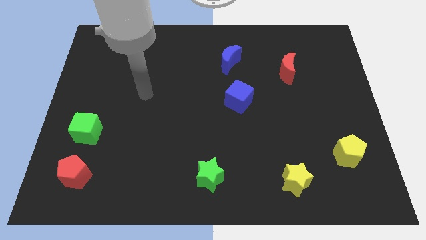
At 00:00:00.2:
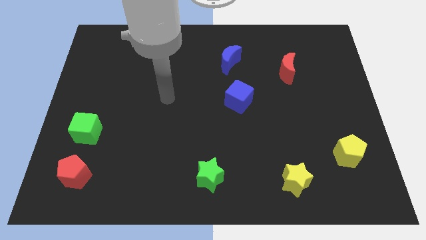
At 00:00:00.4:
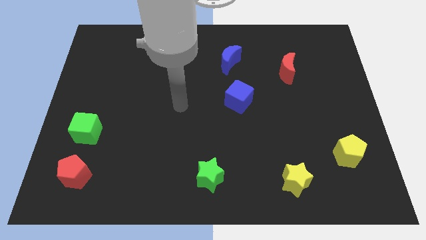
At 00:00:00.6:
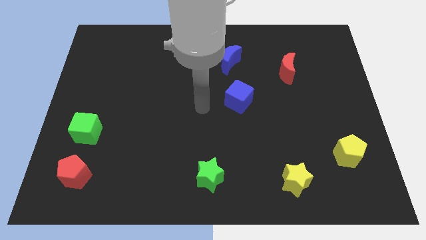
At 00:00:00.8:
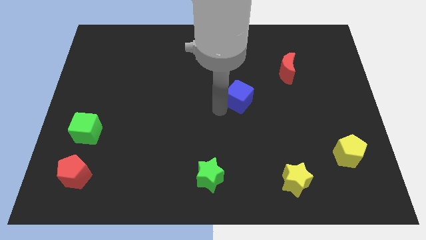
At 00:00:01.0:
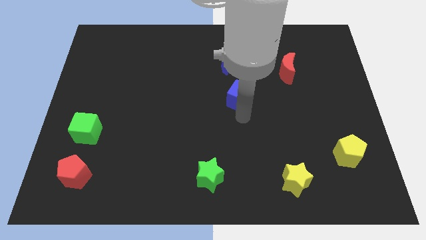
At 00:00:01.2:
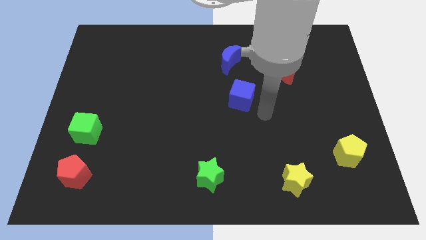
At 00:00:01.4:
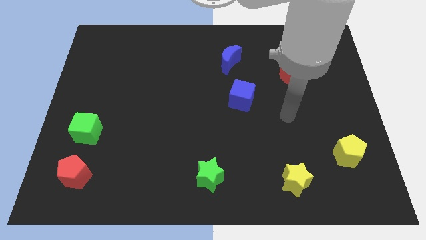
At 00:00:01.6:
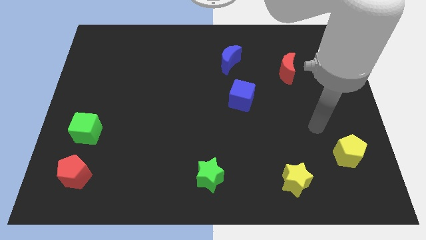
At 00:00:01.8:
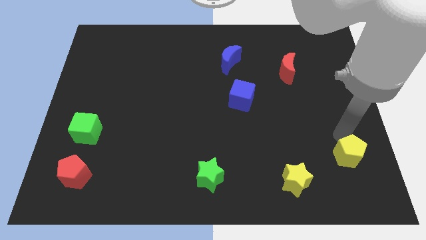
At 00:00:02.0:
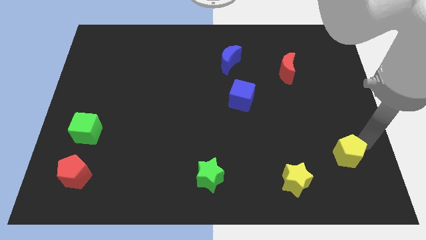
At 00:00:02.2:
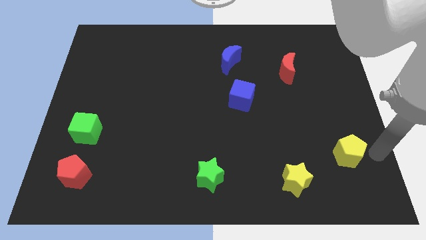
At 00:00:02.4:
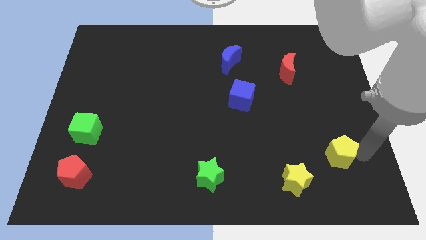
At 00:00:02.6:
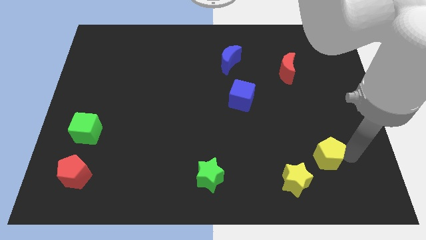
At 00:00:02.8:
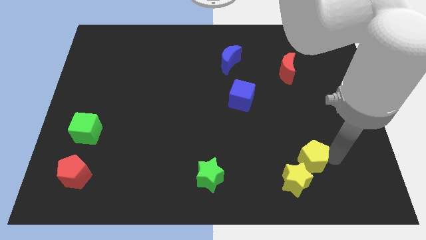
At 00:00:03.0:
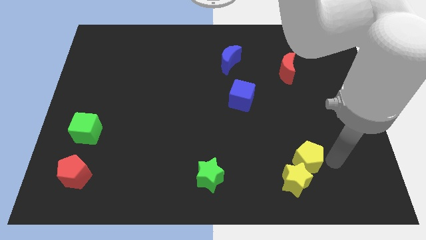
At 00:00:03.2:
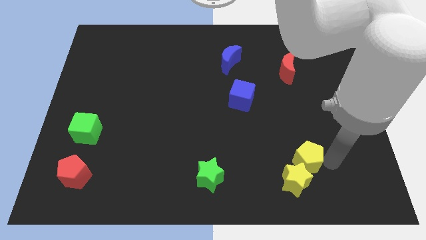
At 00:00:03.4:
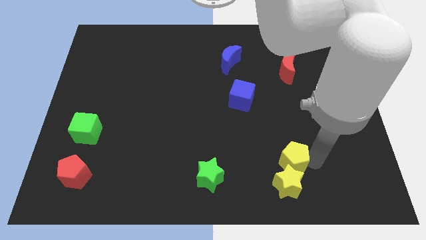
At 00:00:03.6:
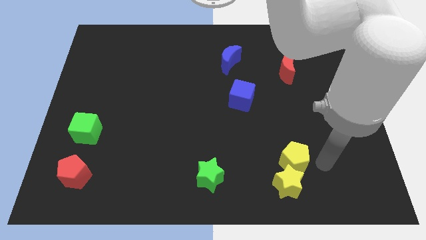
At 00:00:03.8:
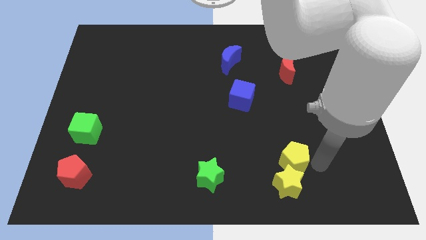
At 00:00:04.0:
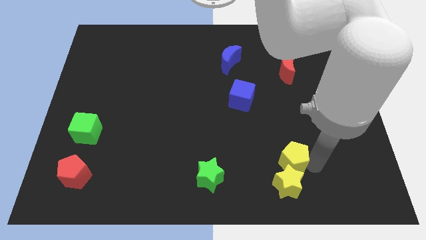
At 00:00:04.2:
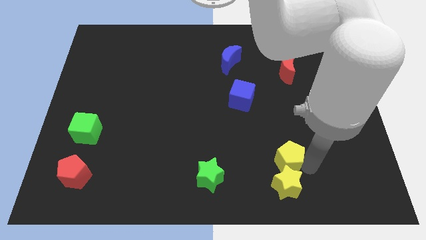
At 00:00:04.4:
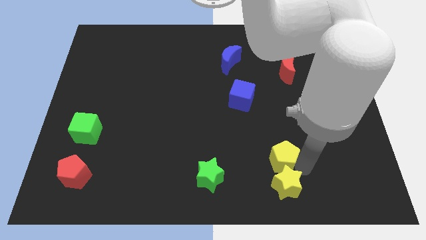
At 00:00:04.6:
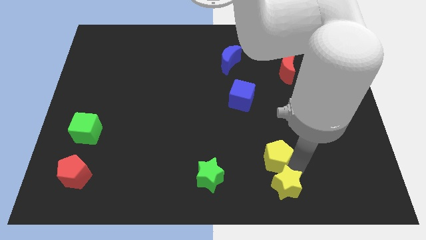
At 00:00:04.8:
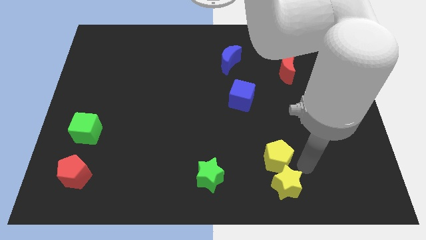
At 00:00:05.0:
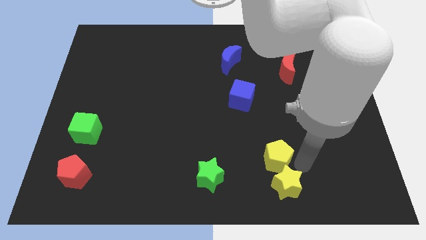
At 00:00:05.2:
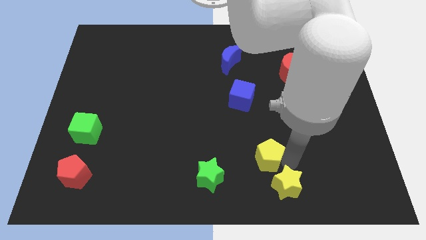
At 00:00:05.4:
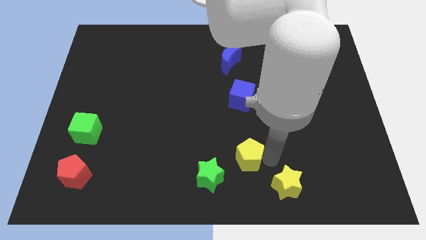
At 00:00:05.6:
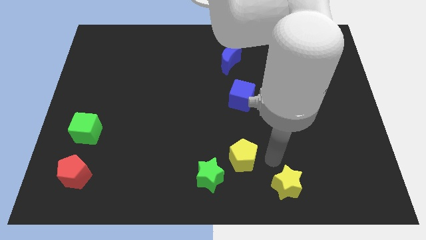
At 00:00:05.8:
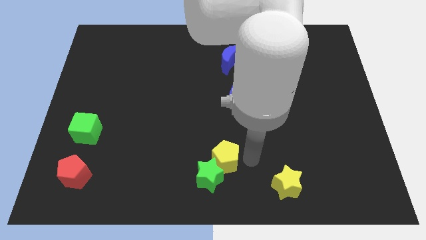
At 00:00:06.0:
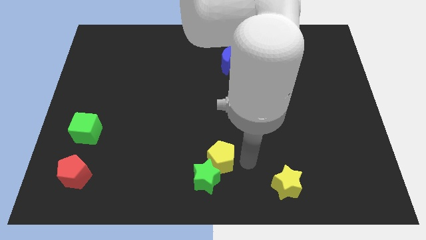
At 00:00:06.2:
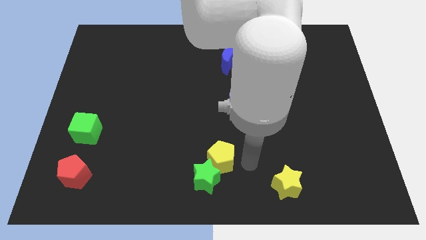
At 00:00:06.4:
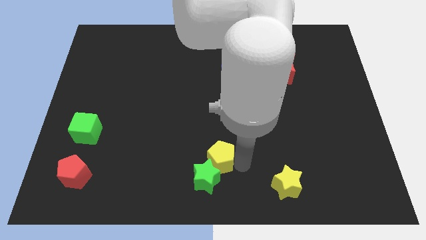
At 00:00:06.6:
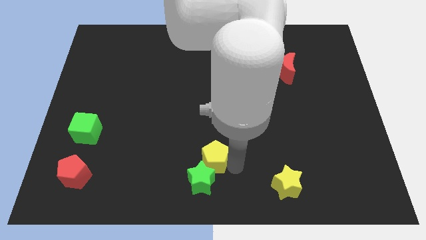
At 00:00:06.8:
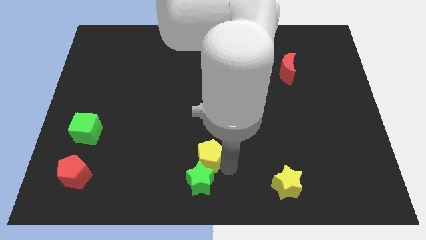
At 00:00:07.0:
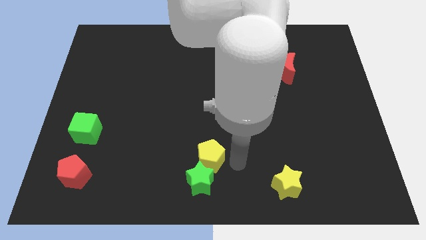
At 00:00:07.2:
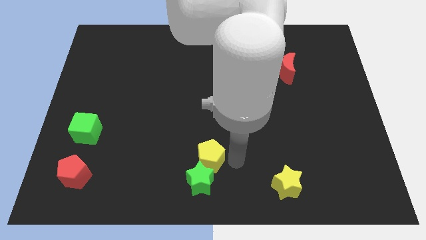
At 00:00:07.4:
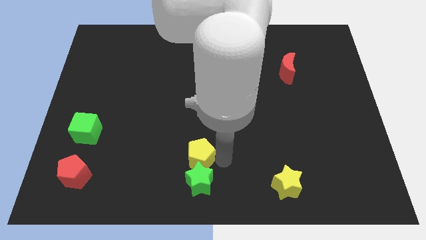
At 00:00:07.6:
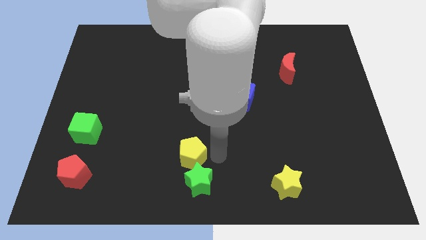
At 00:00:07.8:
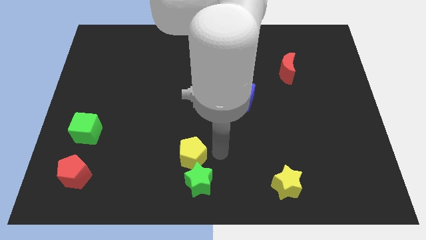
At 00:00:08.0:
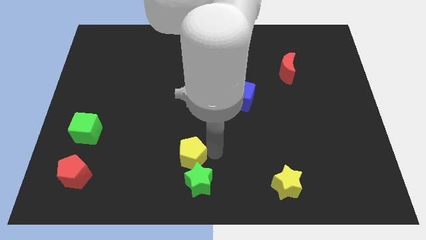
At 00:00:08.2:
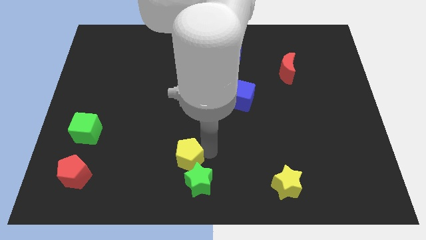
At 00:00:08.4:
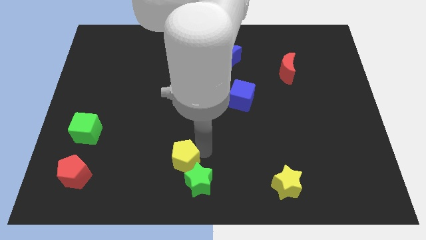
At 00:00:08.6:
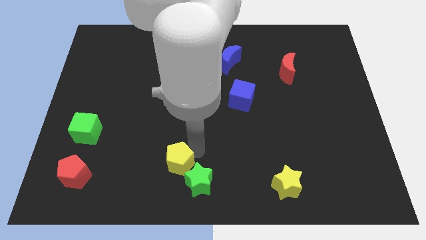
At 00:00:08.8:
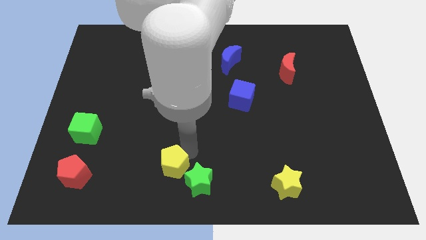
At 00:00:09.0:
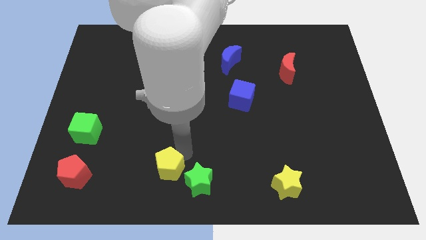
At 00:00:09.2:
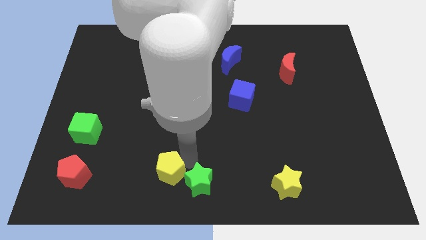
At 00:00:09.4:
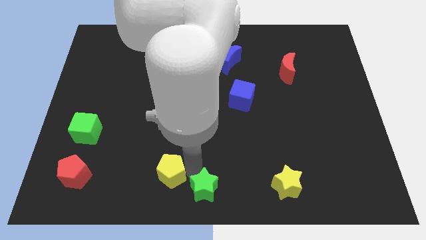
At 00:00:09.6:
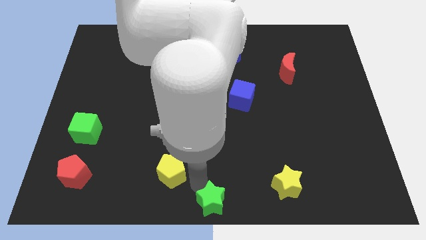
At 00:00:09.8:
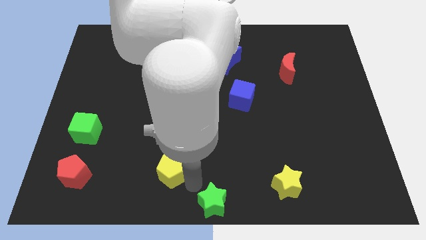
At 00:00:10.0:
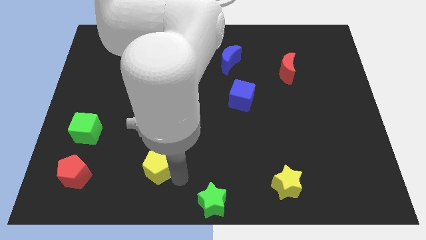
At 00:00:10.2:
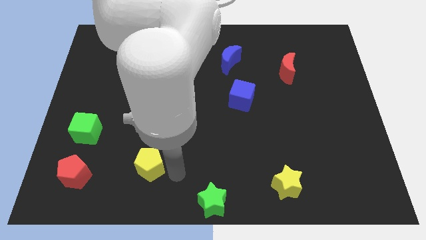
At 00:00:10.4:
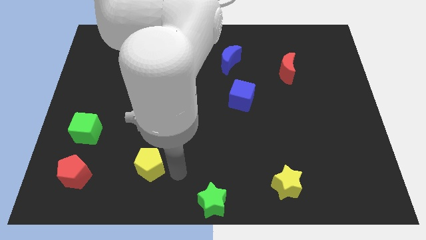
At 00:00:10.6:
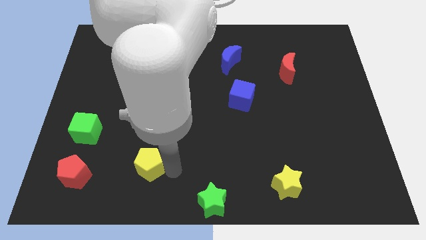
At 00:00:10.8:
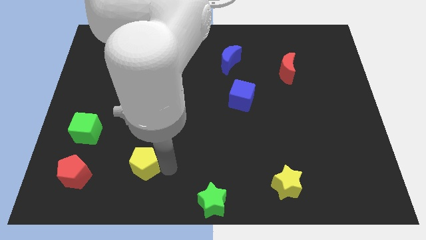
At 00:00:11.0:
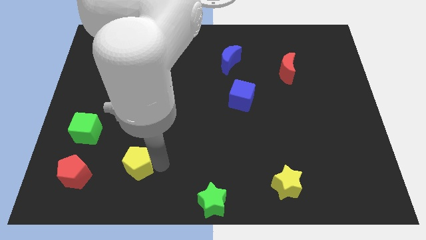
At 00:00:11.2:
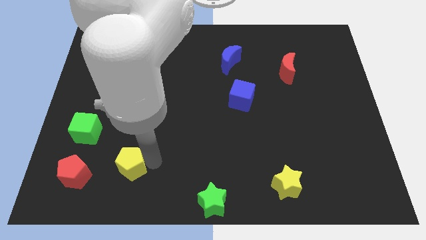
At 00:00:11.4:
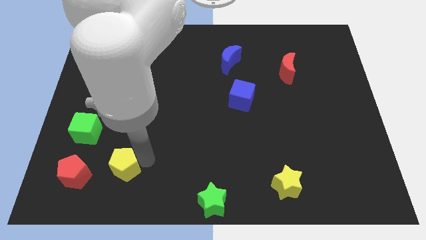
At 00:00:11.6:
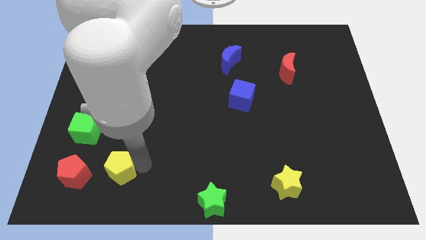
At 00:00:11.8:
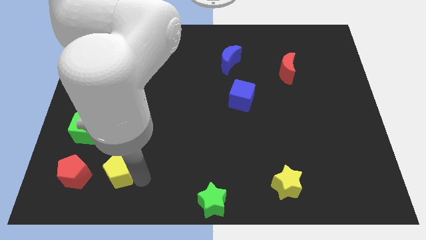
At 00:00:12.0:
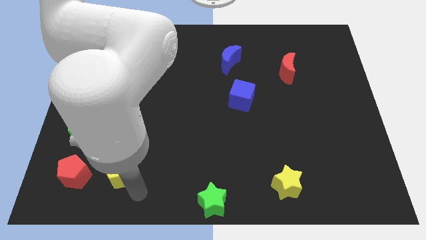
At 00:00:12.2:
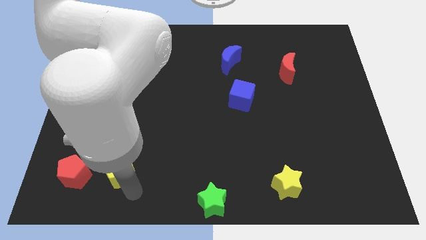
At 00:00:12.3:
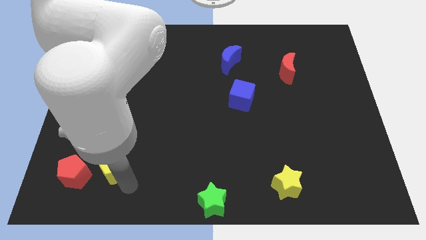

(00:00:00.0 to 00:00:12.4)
slide the yellow pentagon to the top right side of the red pentagon
